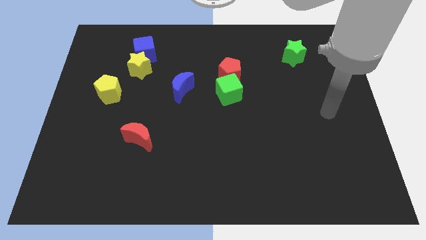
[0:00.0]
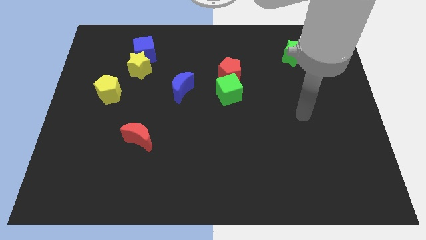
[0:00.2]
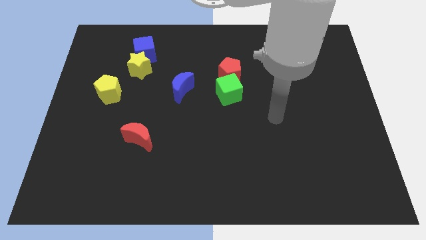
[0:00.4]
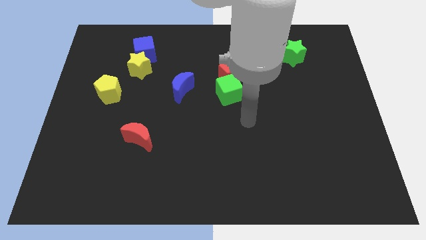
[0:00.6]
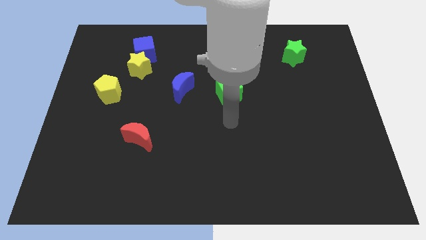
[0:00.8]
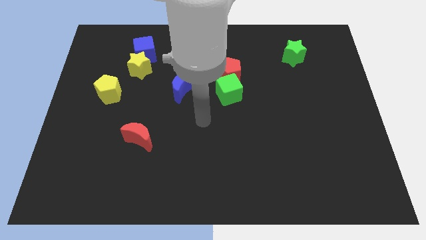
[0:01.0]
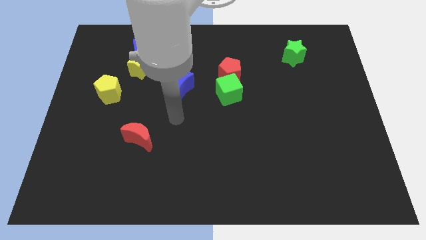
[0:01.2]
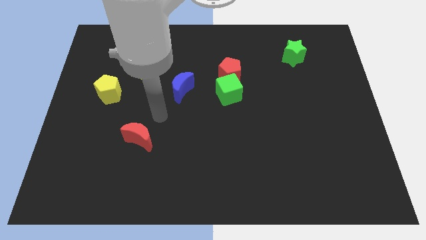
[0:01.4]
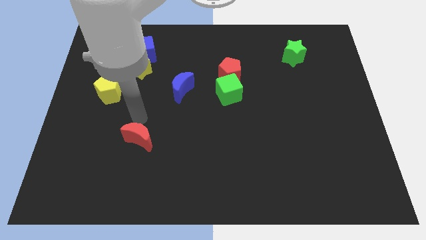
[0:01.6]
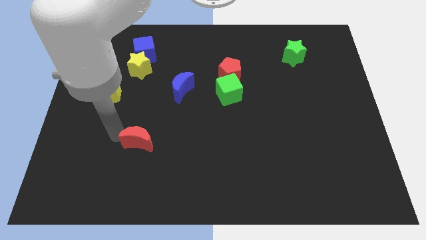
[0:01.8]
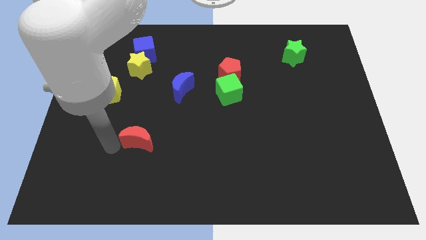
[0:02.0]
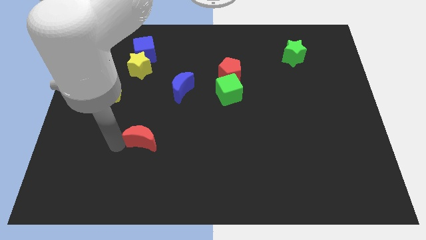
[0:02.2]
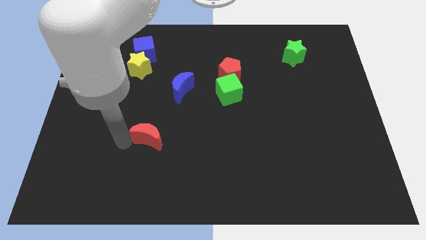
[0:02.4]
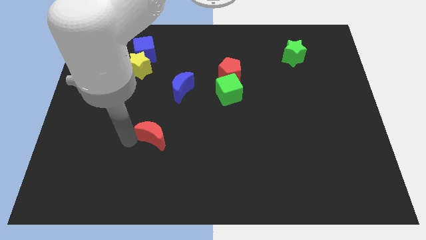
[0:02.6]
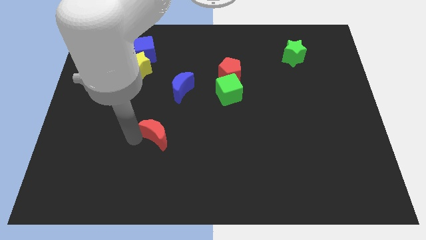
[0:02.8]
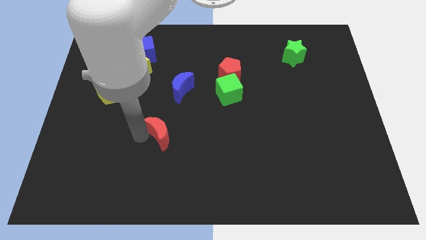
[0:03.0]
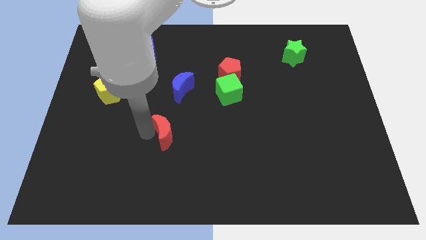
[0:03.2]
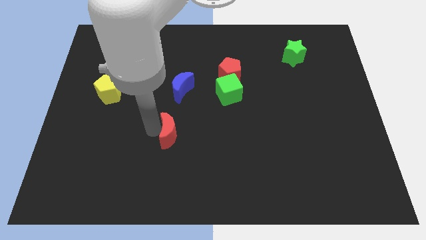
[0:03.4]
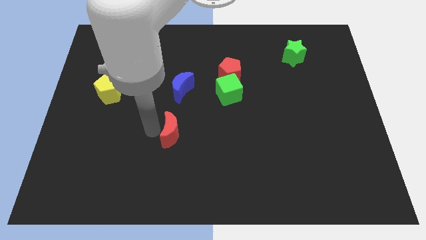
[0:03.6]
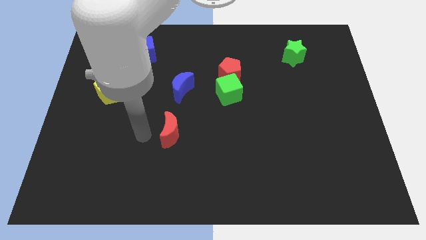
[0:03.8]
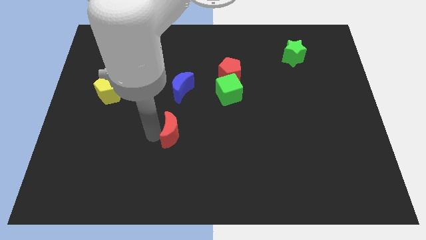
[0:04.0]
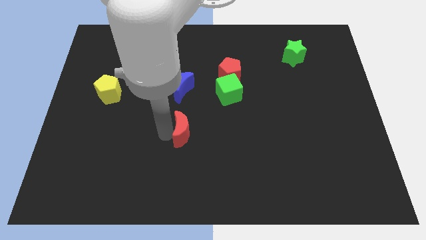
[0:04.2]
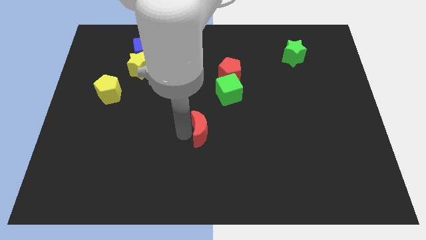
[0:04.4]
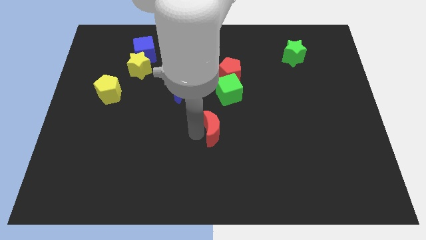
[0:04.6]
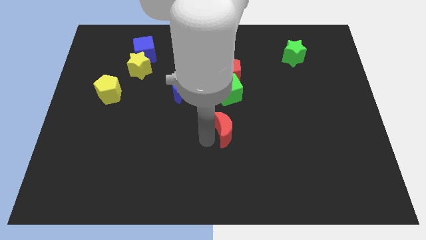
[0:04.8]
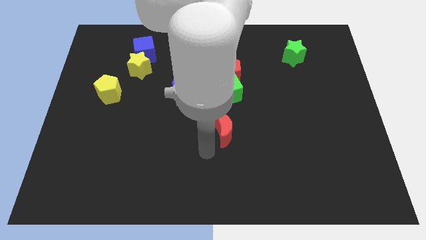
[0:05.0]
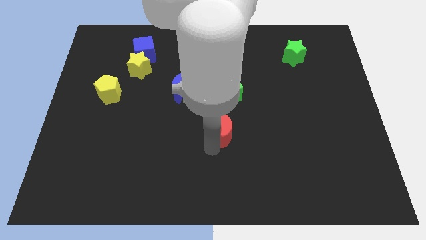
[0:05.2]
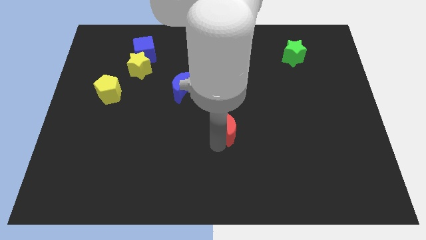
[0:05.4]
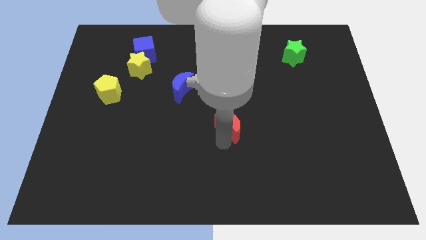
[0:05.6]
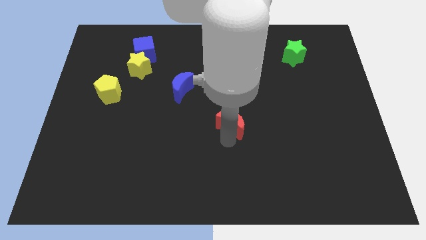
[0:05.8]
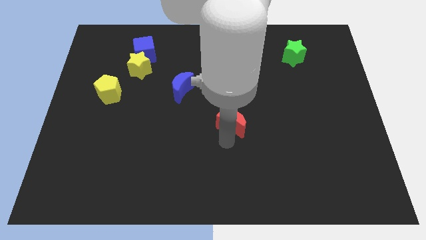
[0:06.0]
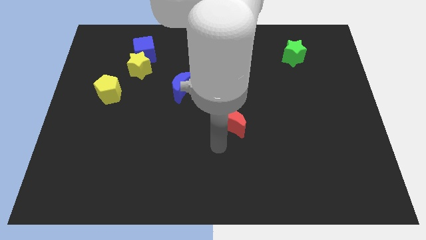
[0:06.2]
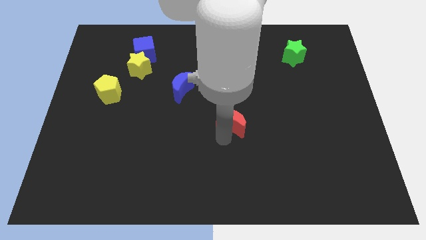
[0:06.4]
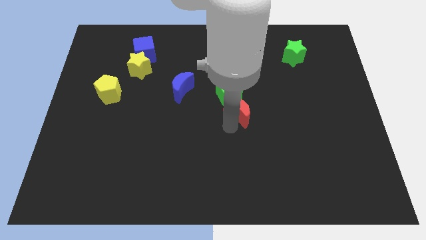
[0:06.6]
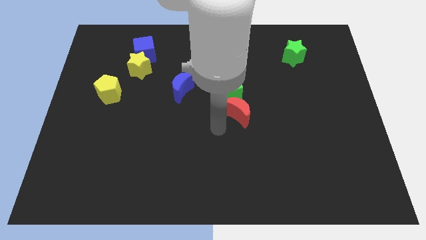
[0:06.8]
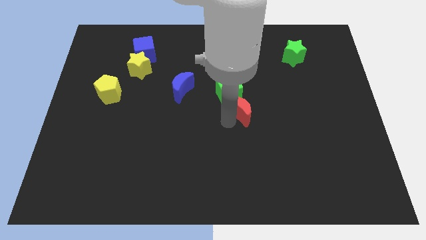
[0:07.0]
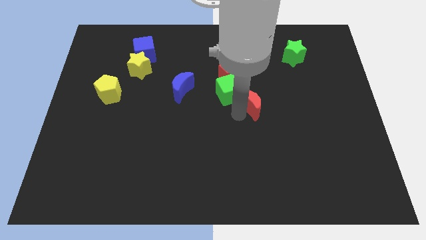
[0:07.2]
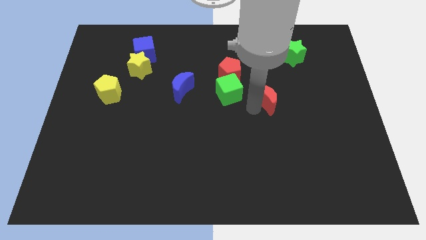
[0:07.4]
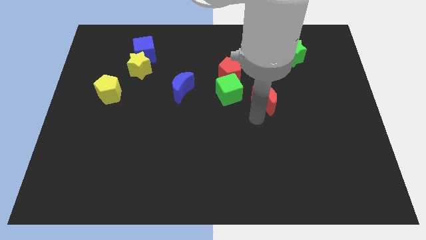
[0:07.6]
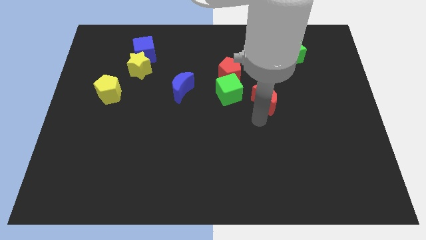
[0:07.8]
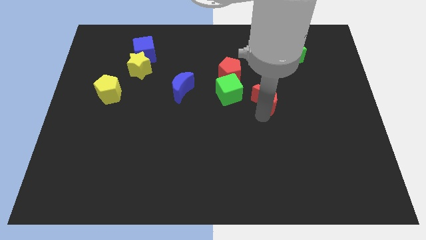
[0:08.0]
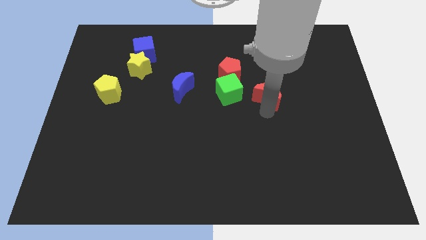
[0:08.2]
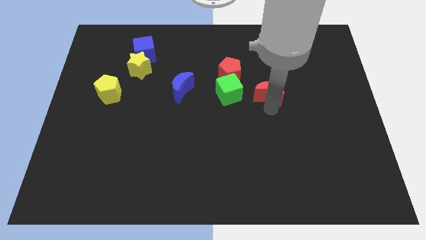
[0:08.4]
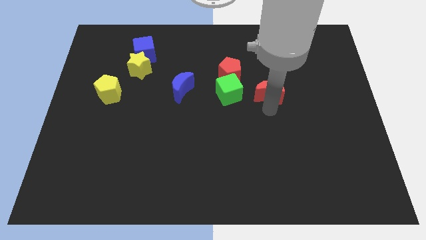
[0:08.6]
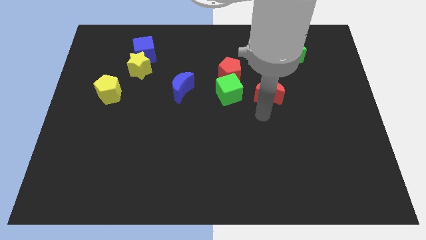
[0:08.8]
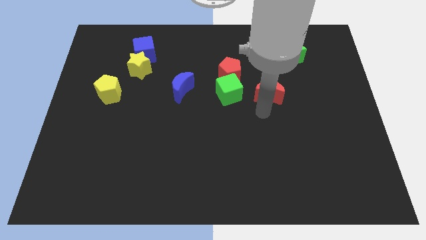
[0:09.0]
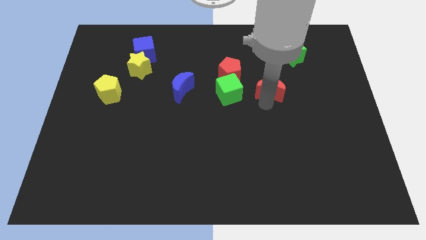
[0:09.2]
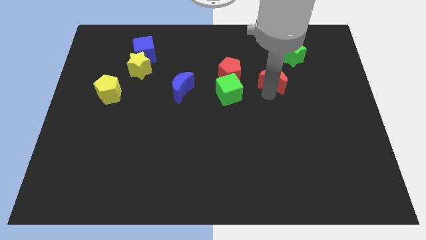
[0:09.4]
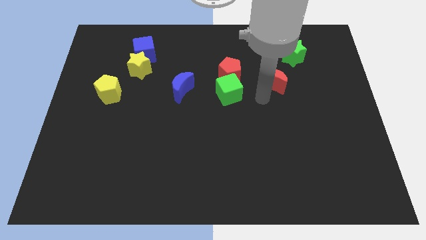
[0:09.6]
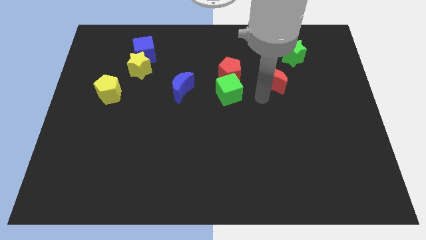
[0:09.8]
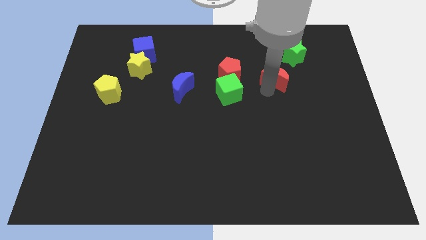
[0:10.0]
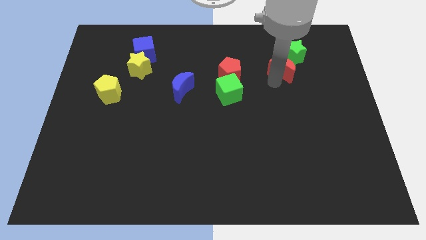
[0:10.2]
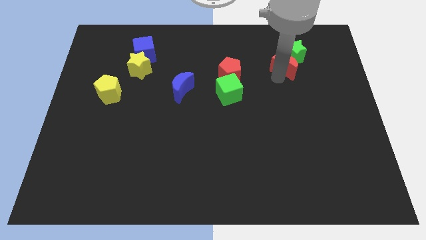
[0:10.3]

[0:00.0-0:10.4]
slide the red moon towards the green star

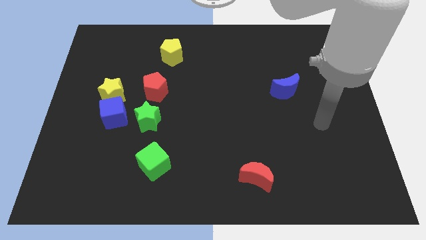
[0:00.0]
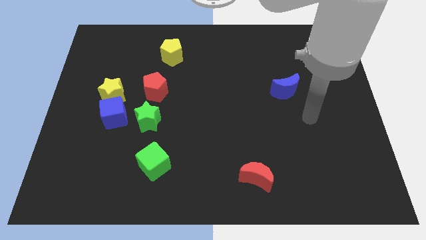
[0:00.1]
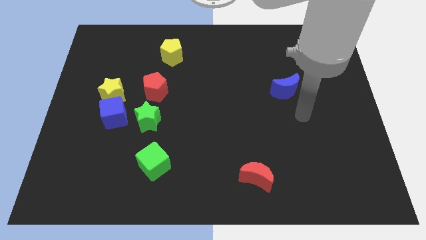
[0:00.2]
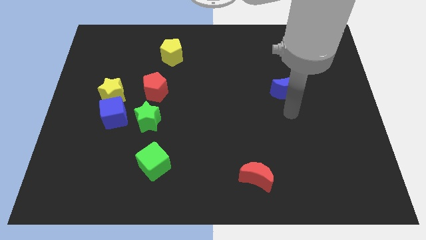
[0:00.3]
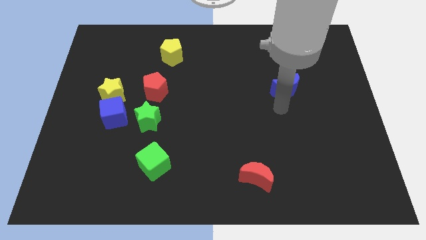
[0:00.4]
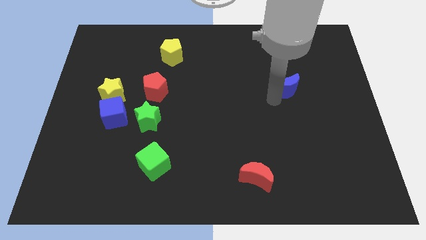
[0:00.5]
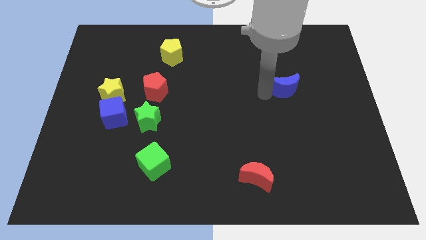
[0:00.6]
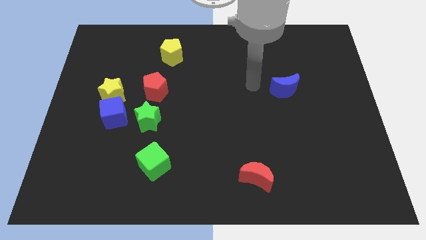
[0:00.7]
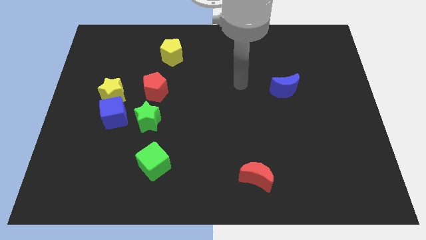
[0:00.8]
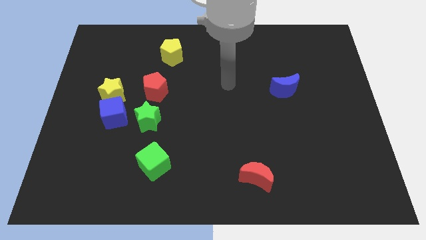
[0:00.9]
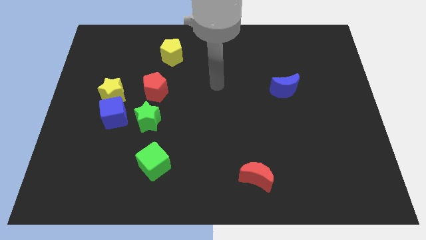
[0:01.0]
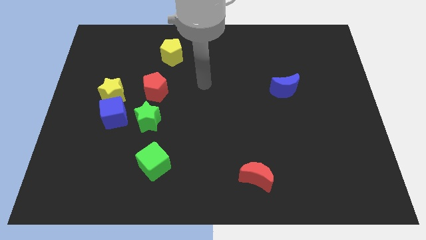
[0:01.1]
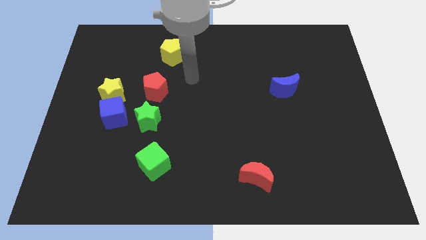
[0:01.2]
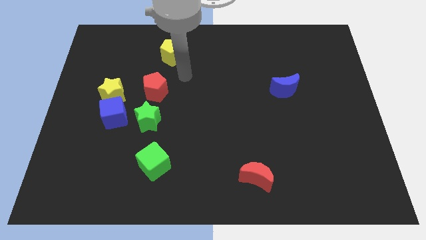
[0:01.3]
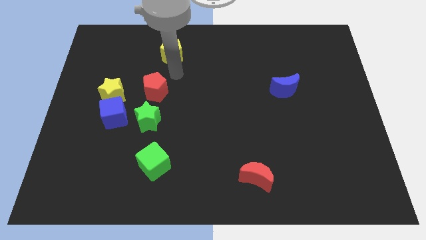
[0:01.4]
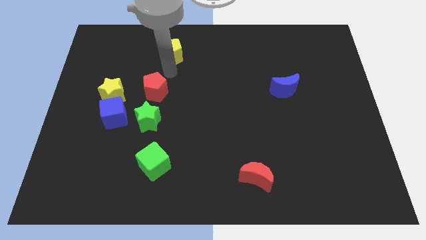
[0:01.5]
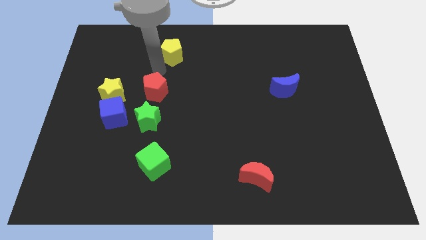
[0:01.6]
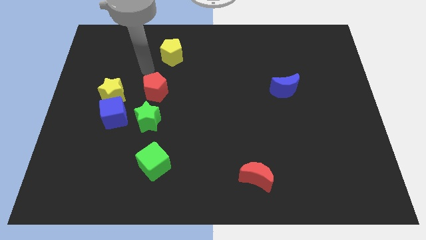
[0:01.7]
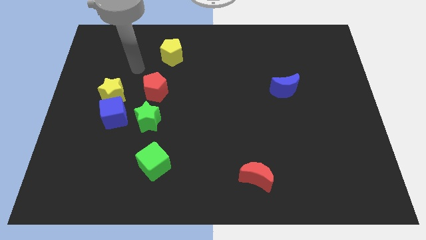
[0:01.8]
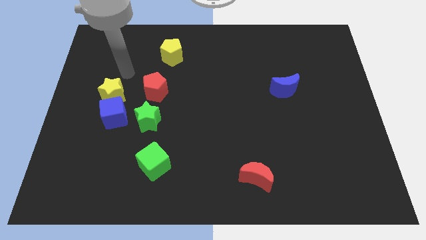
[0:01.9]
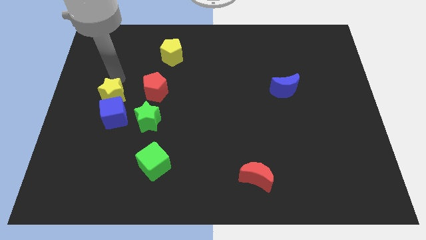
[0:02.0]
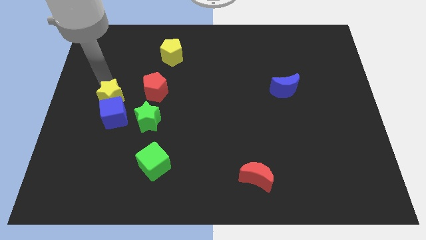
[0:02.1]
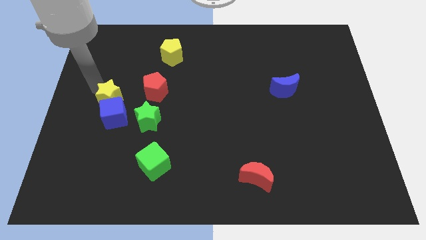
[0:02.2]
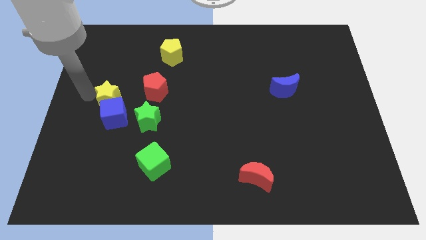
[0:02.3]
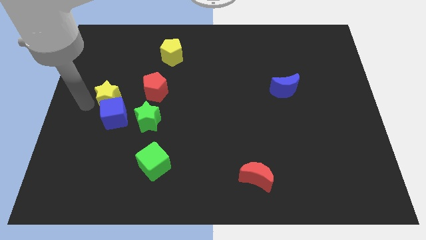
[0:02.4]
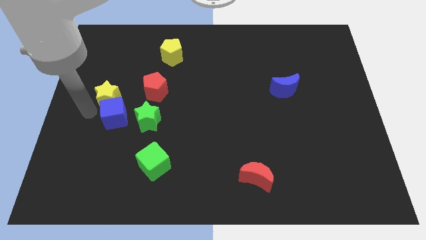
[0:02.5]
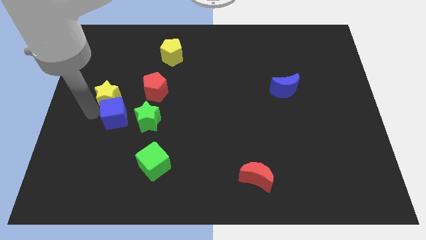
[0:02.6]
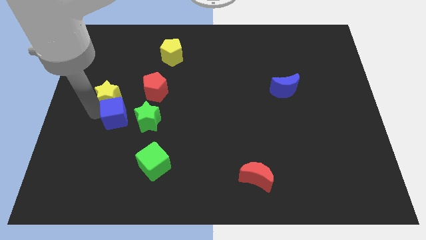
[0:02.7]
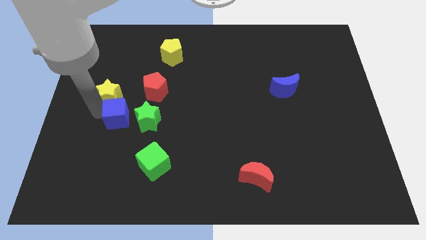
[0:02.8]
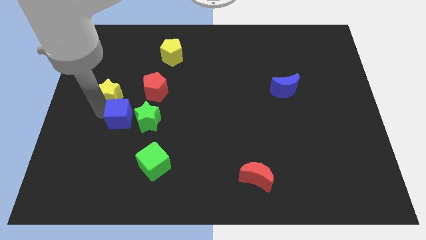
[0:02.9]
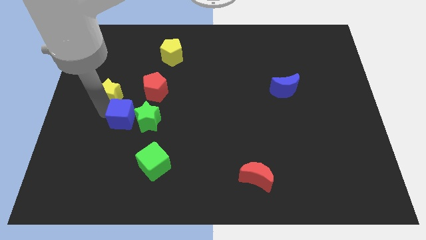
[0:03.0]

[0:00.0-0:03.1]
slide the blue cube next to the green star
